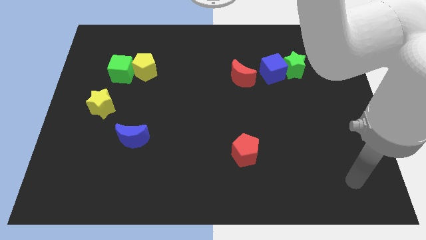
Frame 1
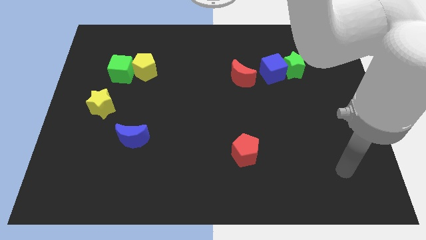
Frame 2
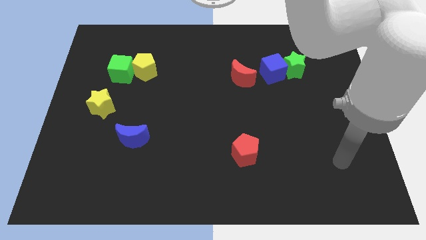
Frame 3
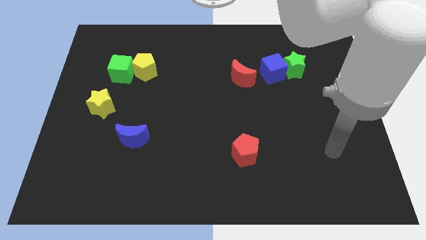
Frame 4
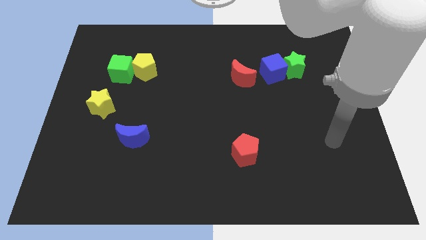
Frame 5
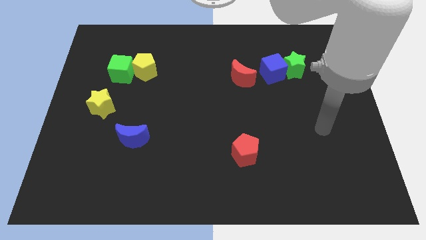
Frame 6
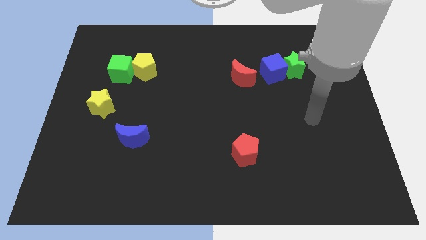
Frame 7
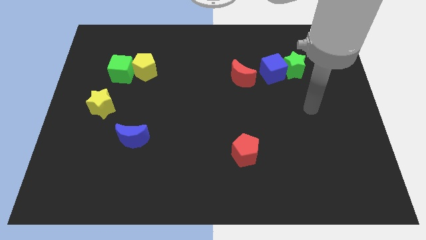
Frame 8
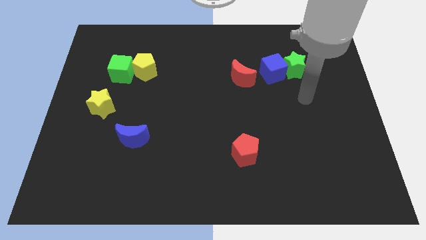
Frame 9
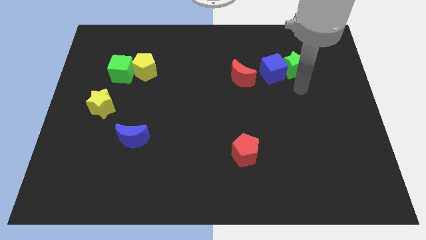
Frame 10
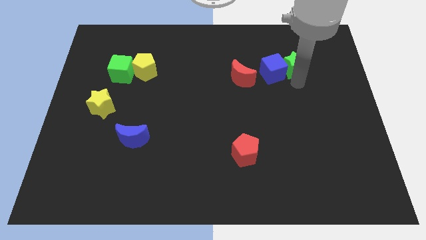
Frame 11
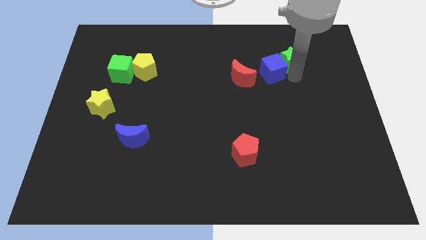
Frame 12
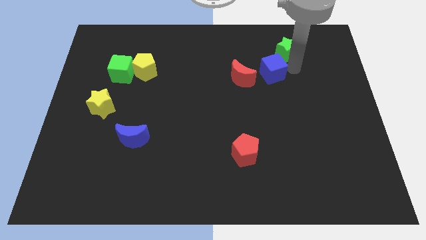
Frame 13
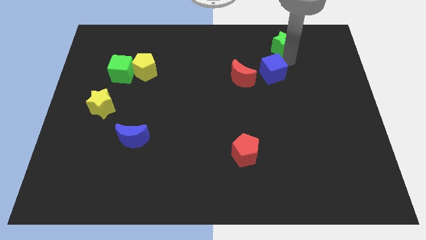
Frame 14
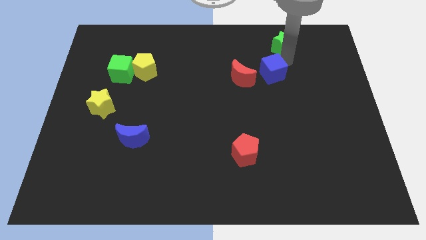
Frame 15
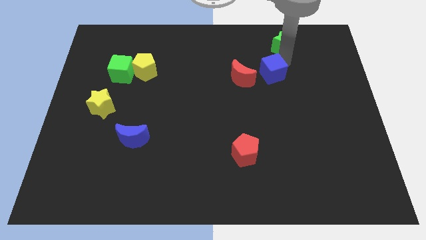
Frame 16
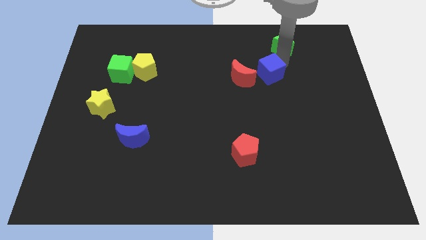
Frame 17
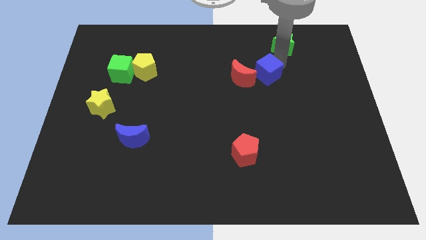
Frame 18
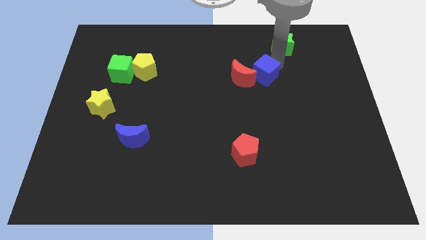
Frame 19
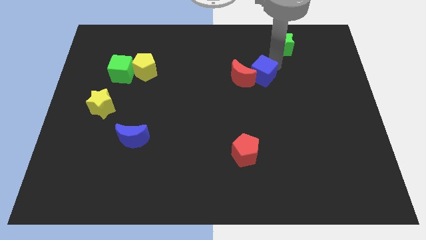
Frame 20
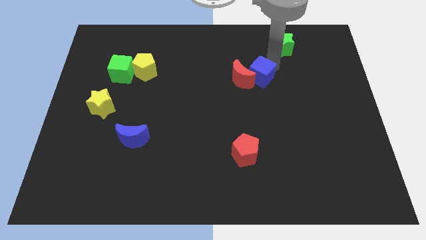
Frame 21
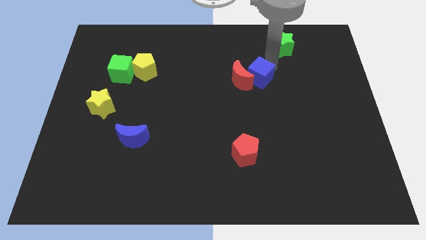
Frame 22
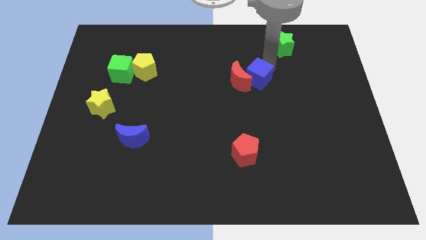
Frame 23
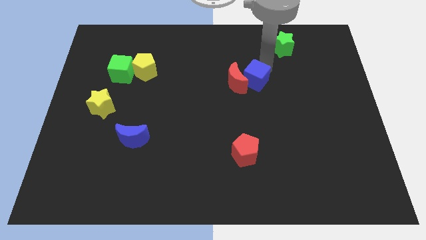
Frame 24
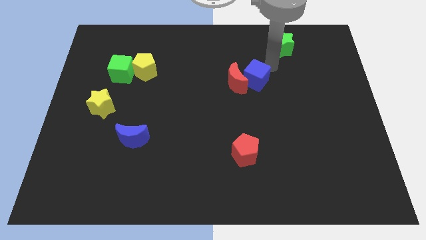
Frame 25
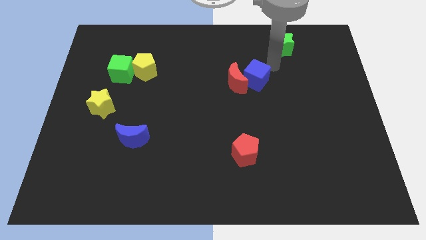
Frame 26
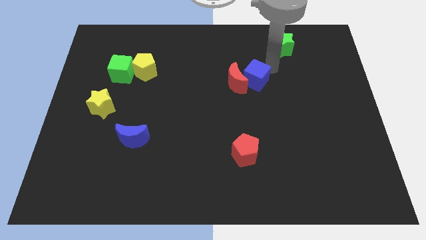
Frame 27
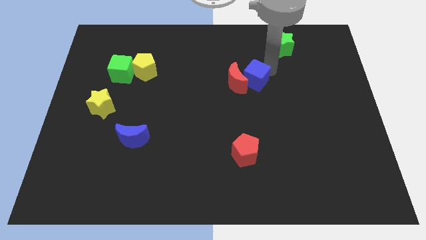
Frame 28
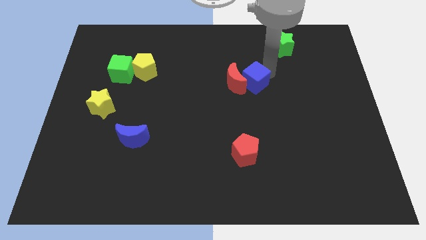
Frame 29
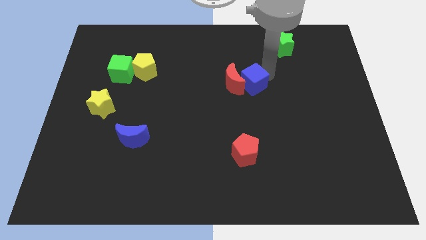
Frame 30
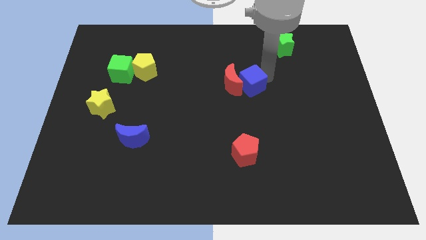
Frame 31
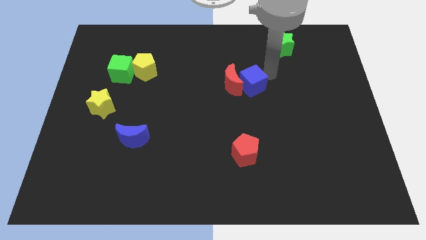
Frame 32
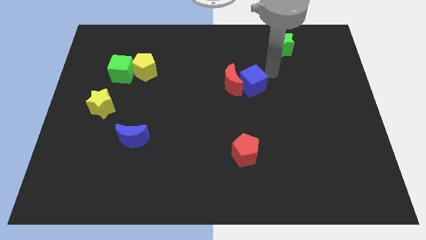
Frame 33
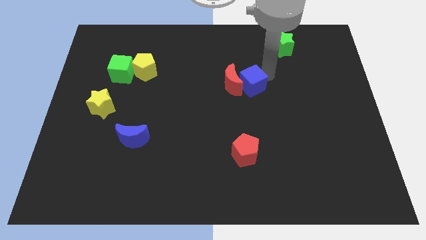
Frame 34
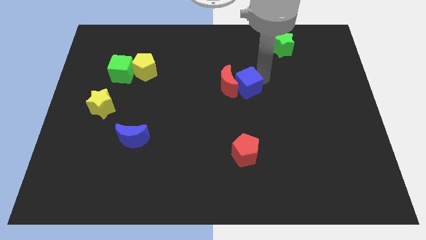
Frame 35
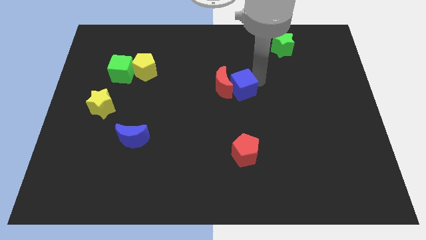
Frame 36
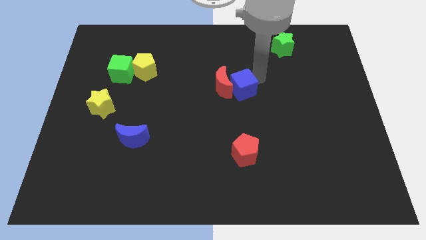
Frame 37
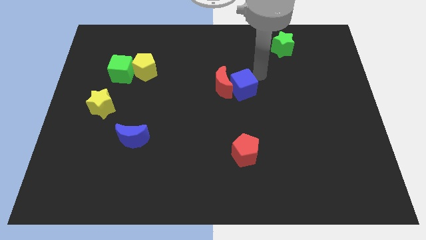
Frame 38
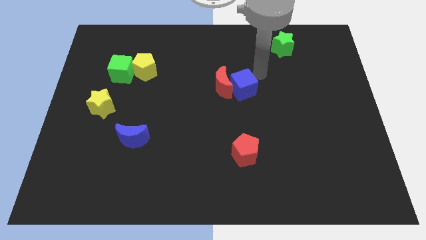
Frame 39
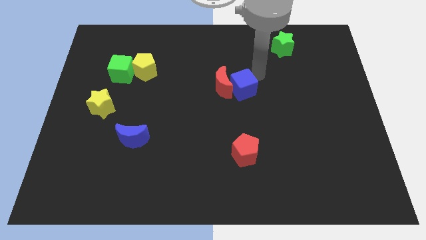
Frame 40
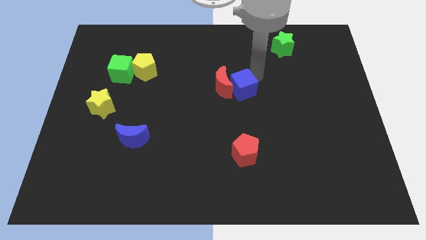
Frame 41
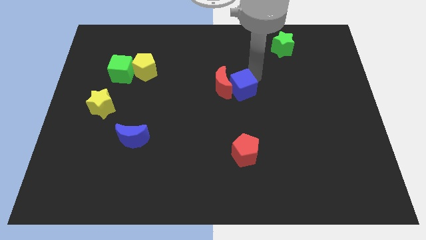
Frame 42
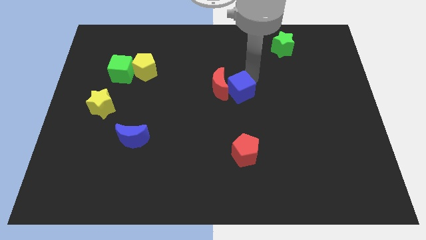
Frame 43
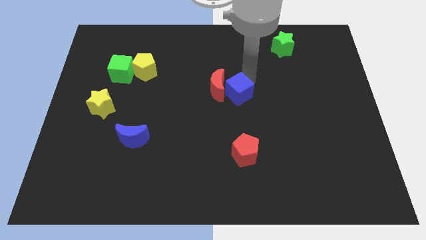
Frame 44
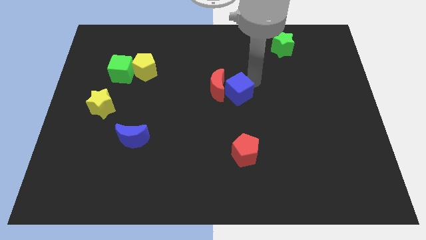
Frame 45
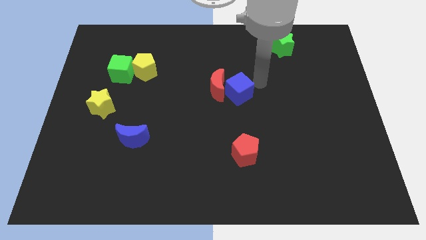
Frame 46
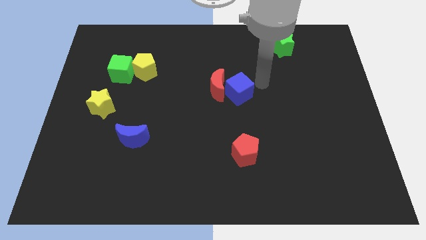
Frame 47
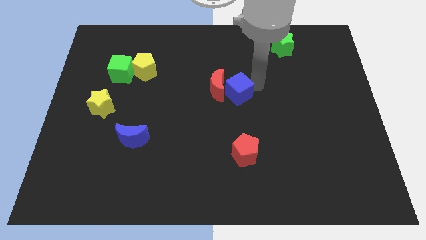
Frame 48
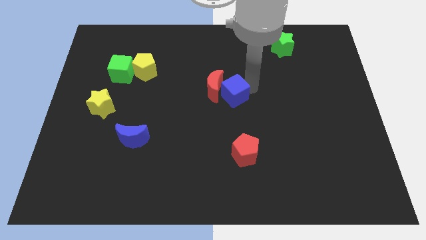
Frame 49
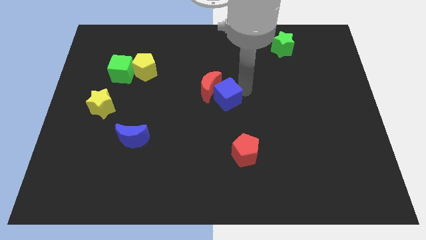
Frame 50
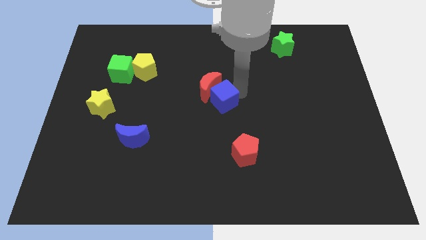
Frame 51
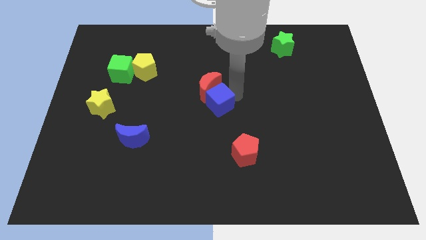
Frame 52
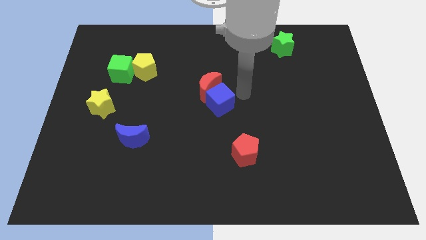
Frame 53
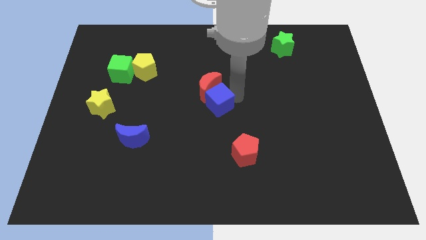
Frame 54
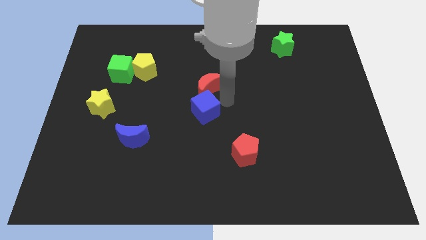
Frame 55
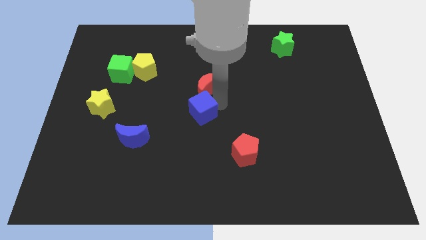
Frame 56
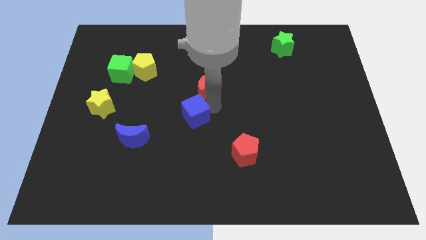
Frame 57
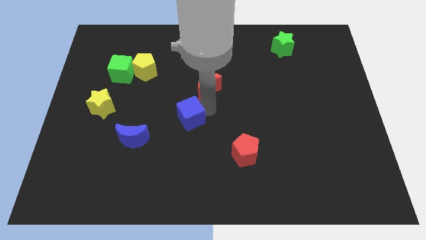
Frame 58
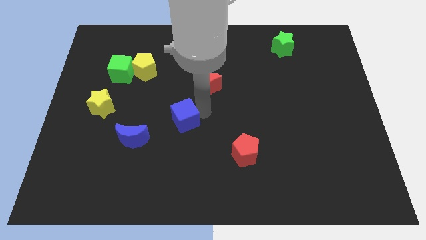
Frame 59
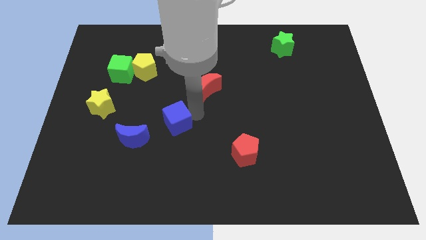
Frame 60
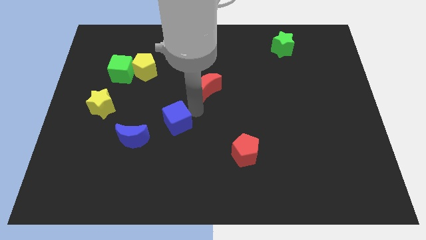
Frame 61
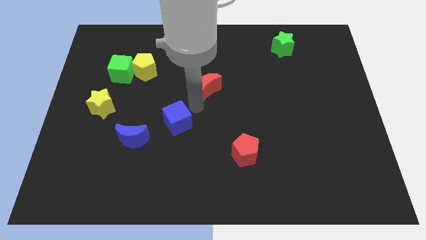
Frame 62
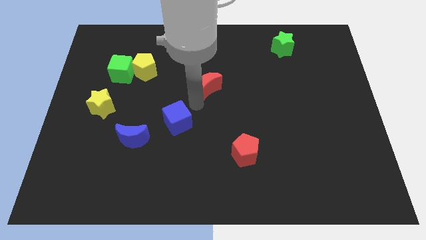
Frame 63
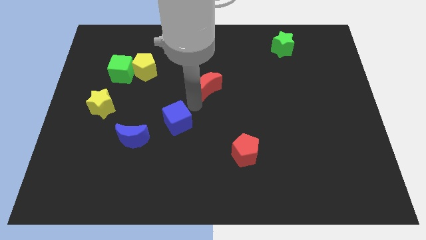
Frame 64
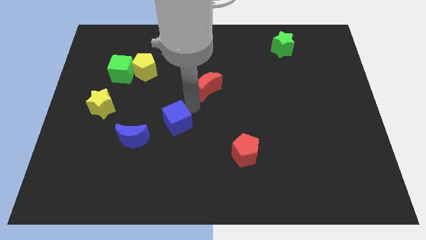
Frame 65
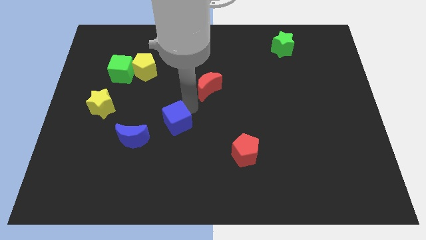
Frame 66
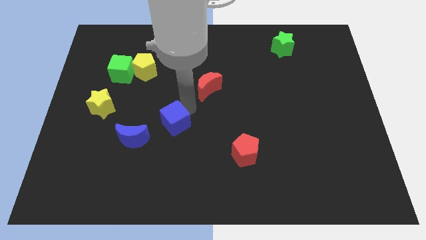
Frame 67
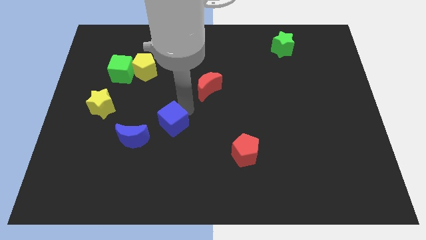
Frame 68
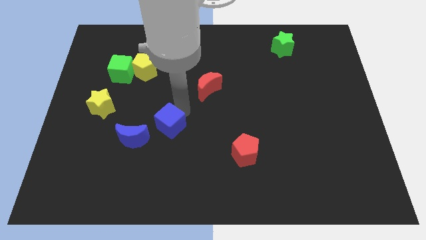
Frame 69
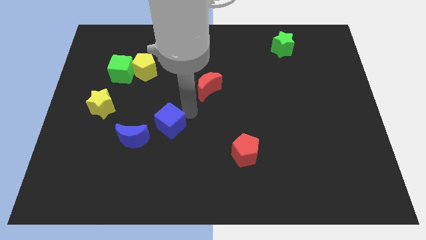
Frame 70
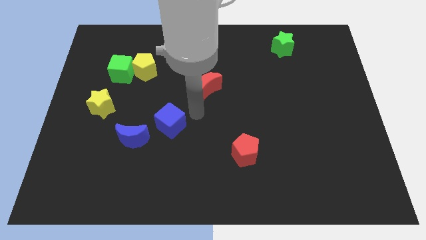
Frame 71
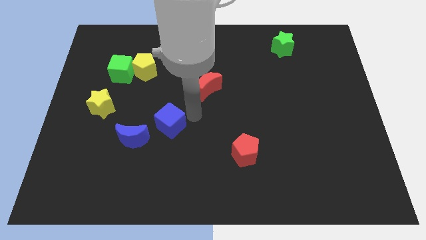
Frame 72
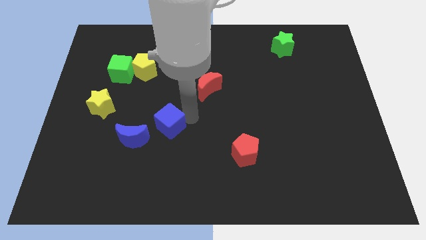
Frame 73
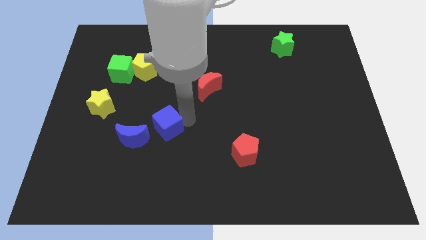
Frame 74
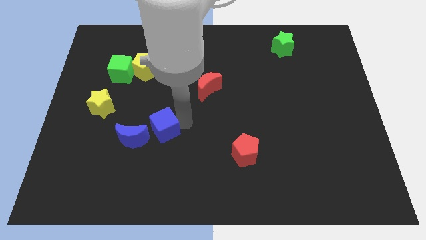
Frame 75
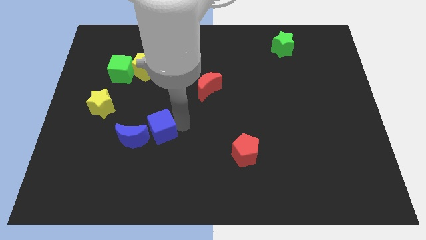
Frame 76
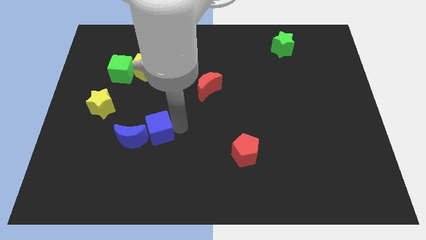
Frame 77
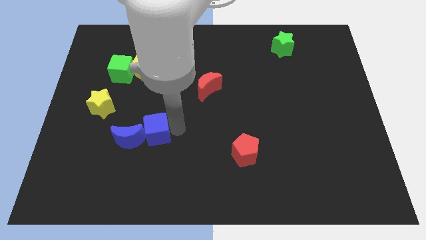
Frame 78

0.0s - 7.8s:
move the blue cube close to the blue moon
